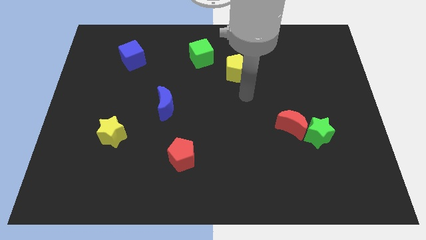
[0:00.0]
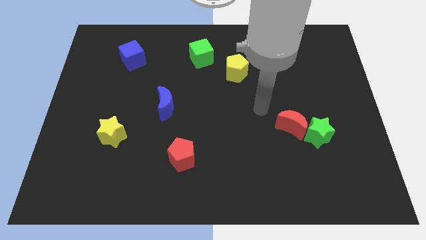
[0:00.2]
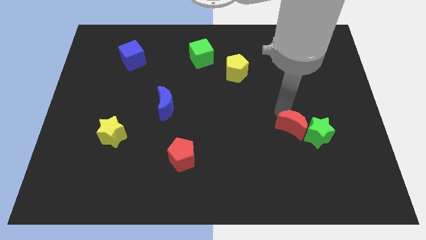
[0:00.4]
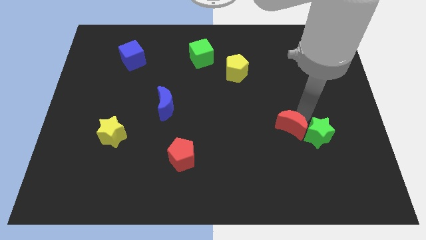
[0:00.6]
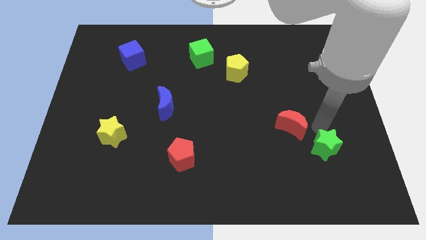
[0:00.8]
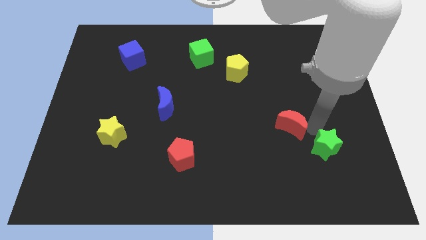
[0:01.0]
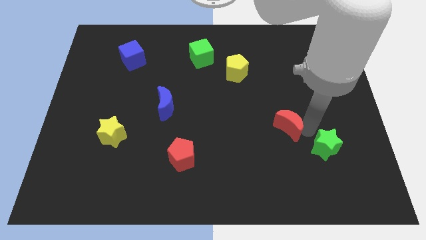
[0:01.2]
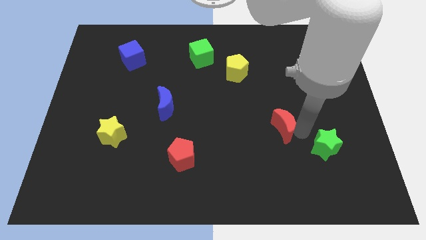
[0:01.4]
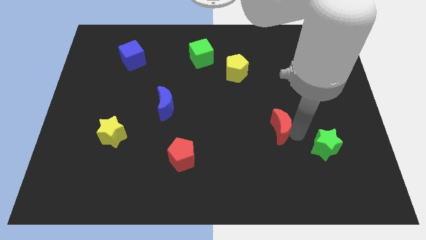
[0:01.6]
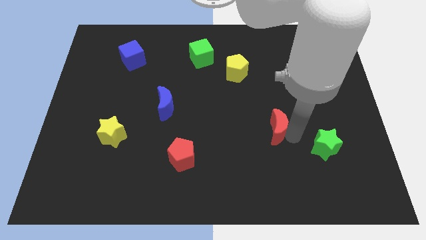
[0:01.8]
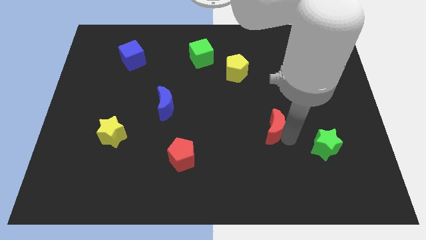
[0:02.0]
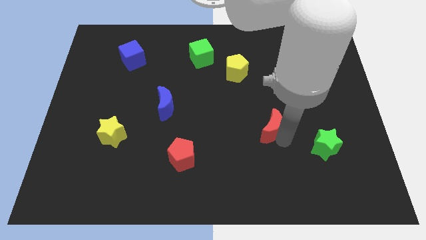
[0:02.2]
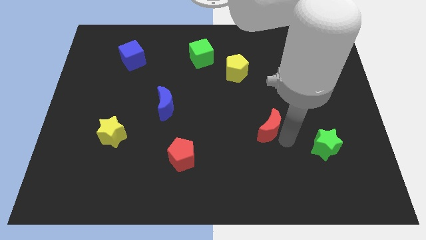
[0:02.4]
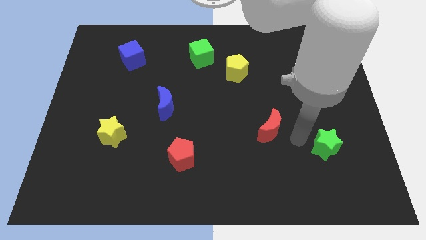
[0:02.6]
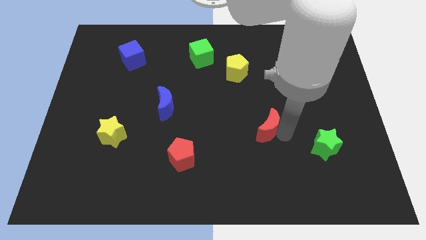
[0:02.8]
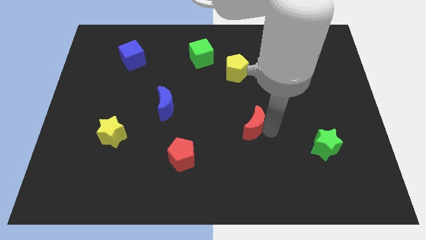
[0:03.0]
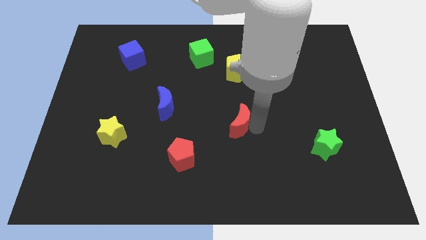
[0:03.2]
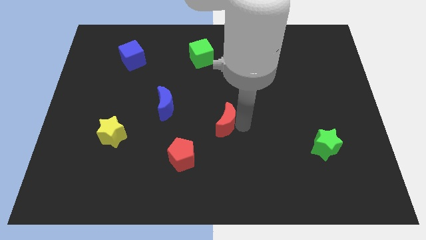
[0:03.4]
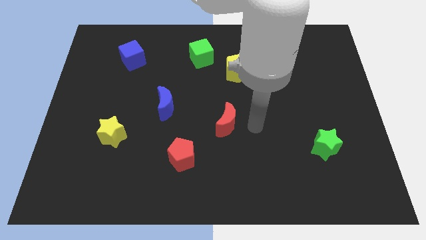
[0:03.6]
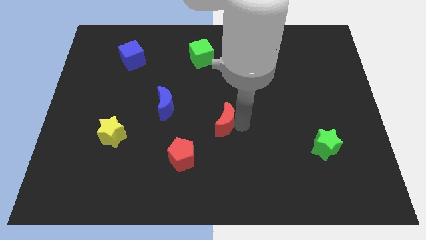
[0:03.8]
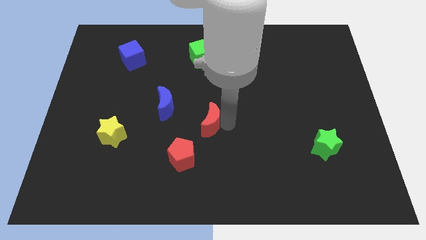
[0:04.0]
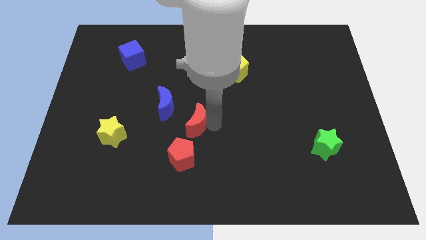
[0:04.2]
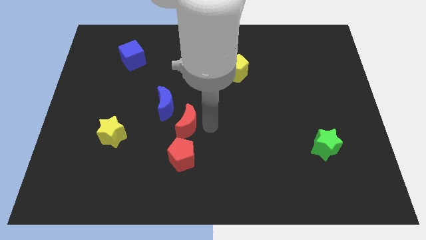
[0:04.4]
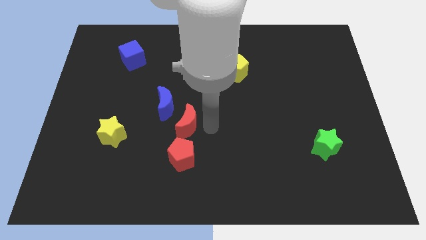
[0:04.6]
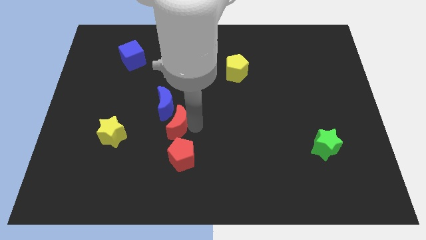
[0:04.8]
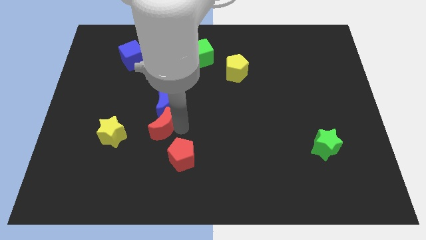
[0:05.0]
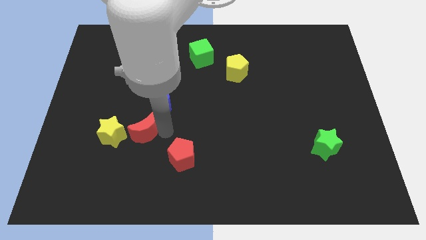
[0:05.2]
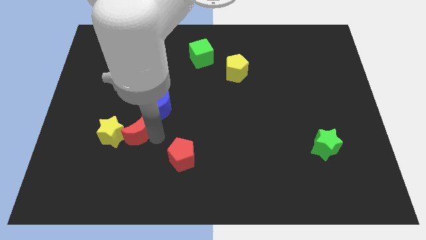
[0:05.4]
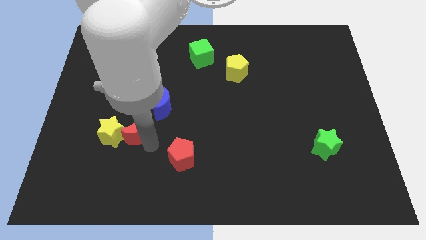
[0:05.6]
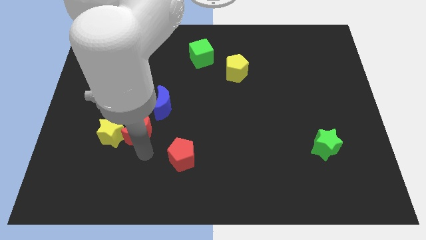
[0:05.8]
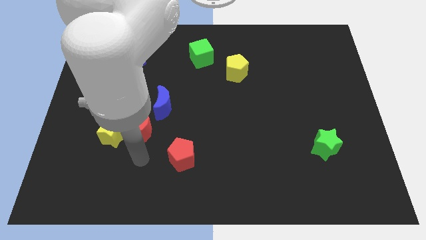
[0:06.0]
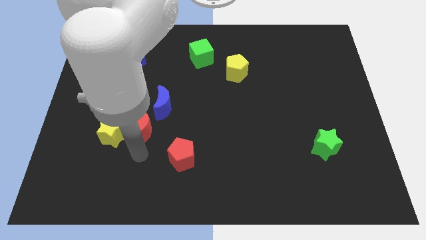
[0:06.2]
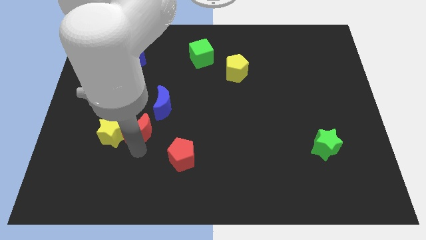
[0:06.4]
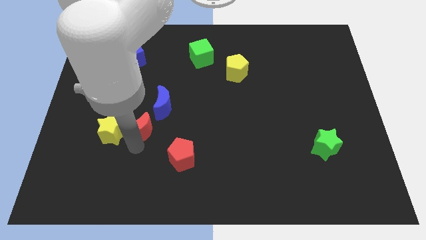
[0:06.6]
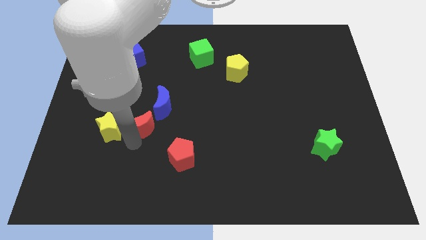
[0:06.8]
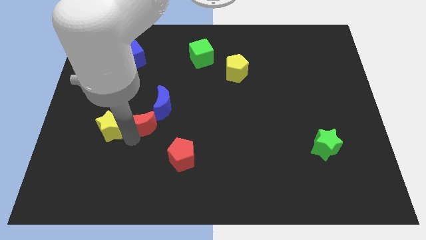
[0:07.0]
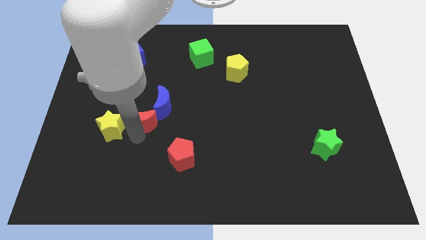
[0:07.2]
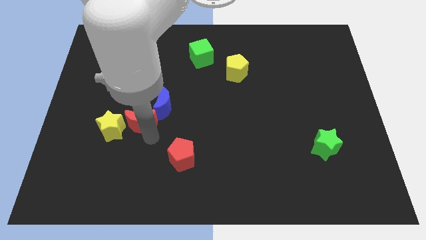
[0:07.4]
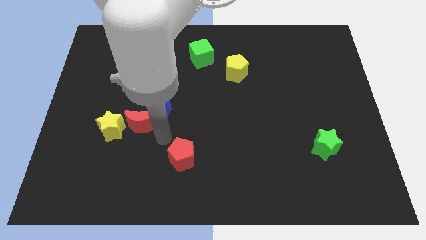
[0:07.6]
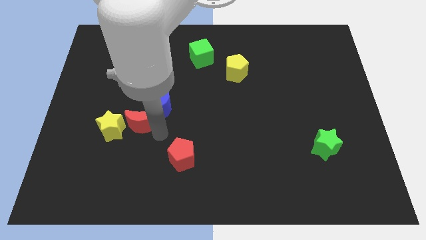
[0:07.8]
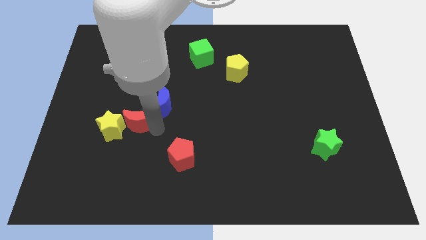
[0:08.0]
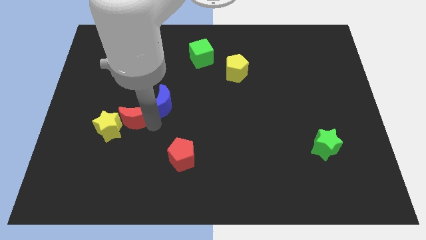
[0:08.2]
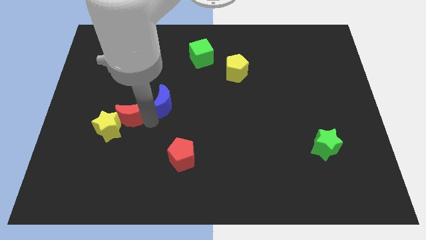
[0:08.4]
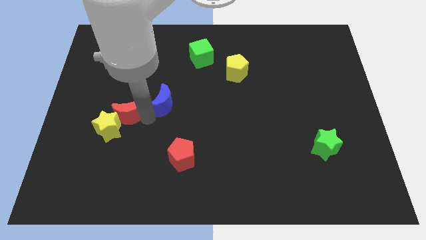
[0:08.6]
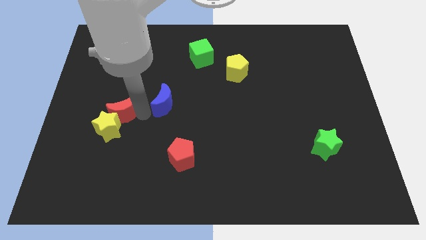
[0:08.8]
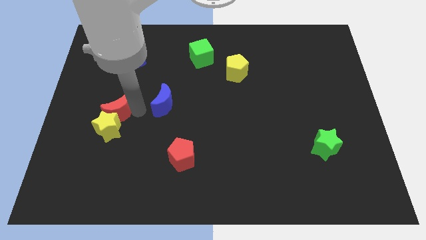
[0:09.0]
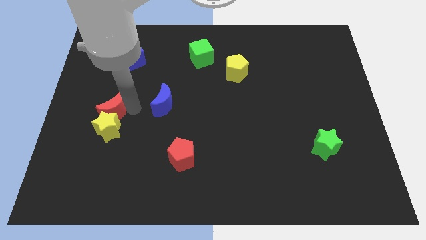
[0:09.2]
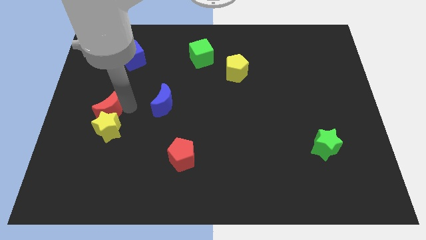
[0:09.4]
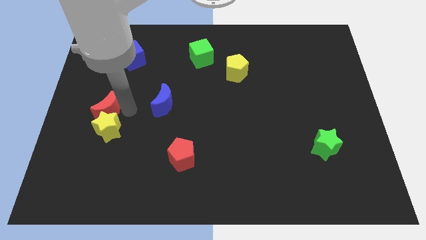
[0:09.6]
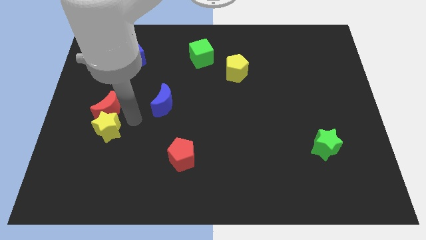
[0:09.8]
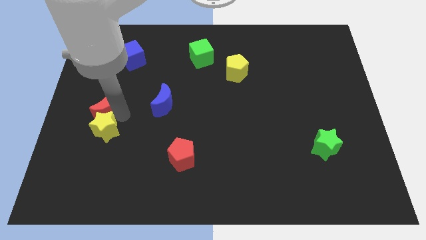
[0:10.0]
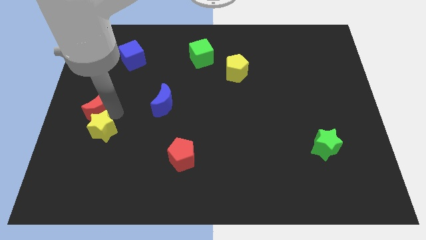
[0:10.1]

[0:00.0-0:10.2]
push the red moon to the center left
